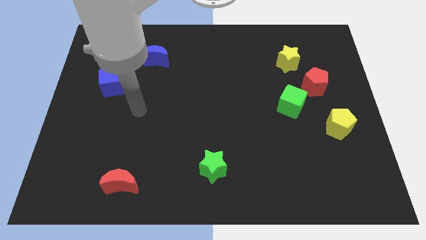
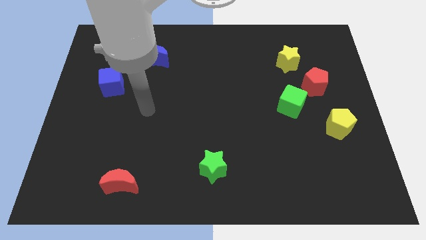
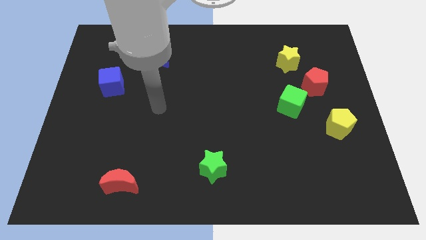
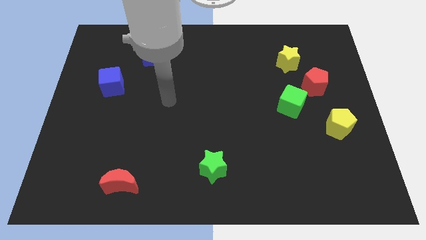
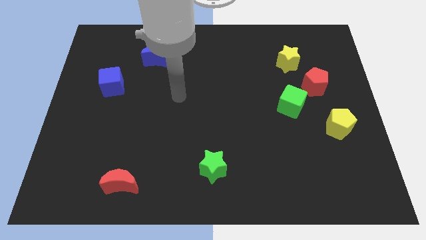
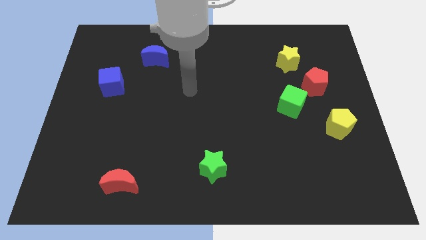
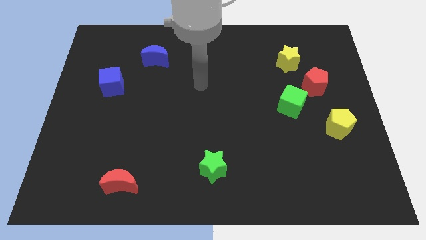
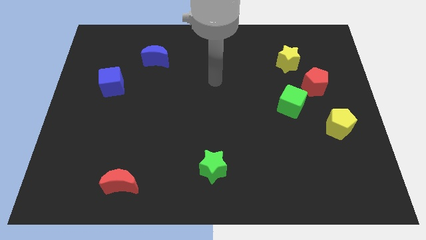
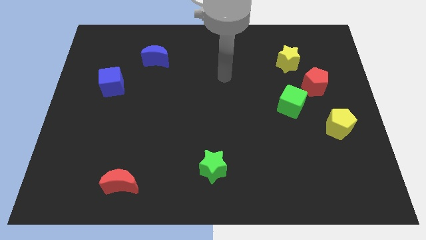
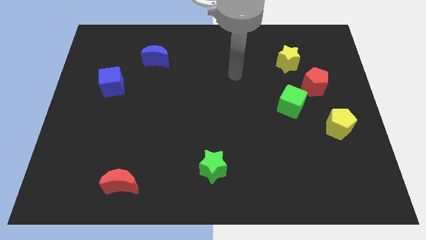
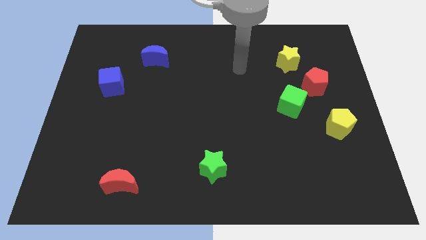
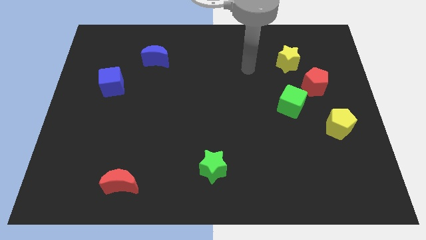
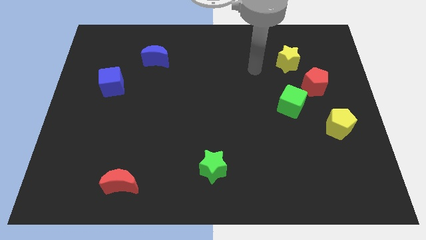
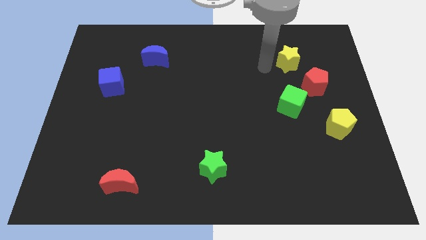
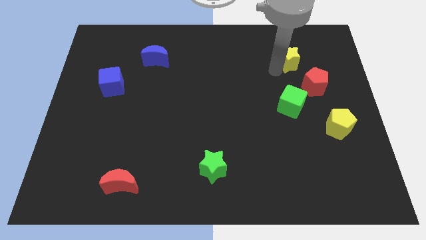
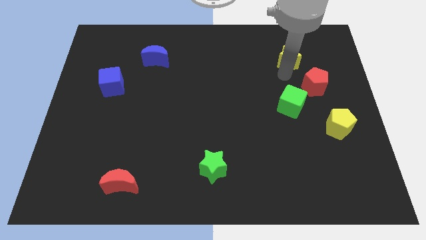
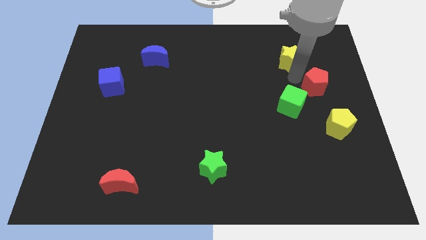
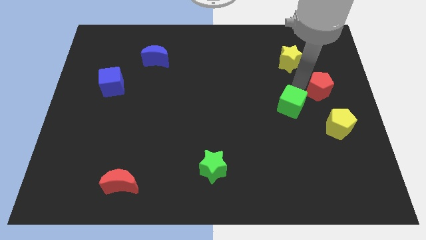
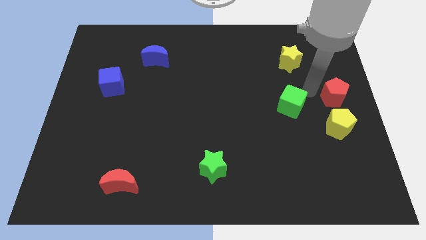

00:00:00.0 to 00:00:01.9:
move the green cube away from the red pentagon

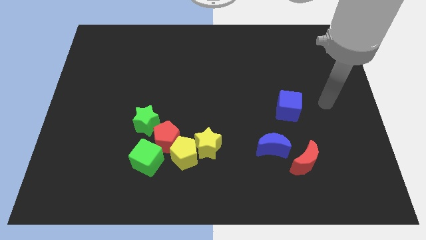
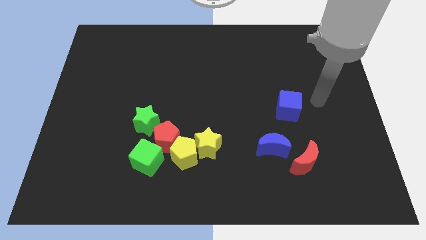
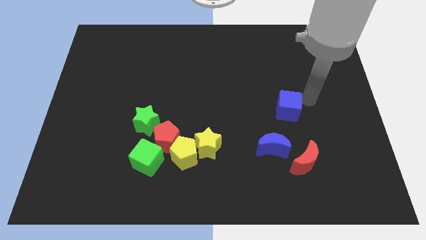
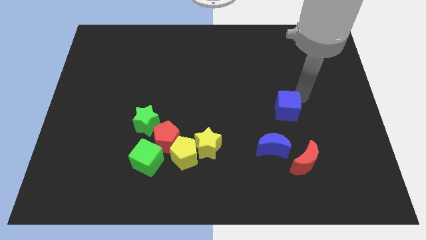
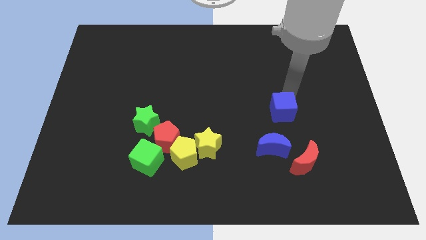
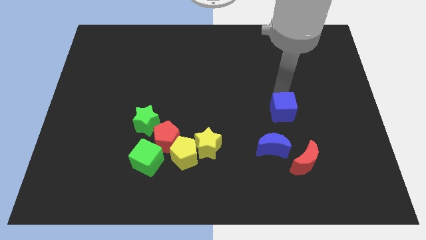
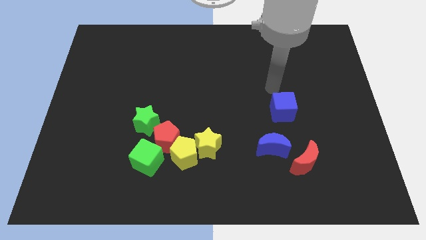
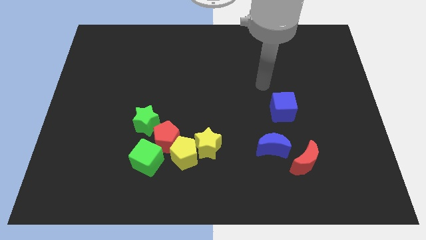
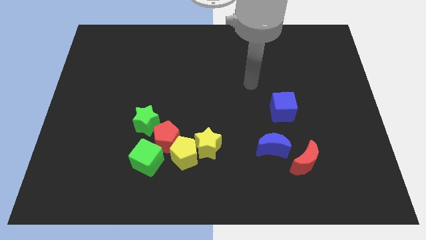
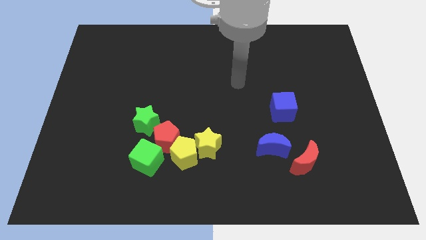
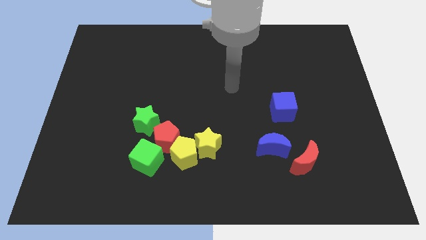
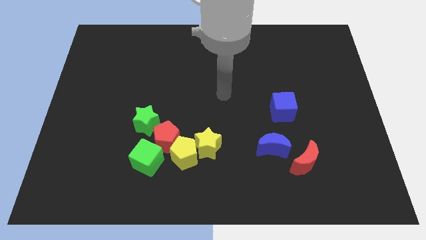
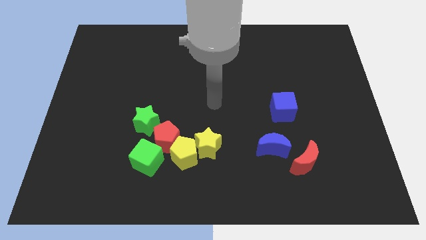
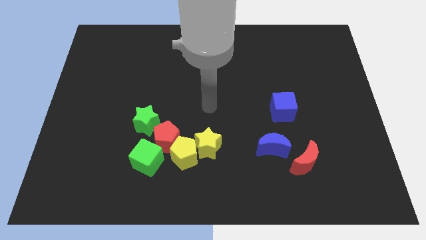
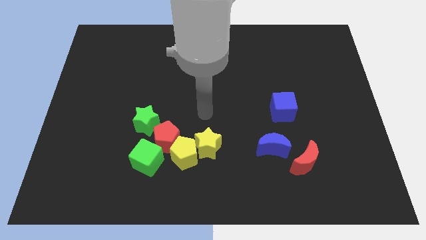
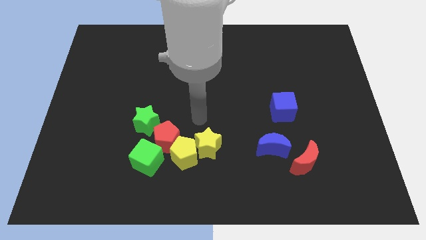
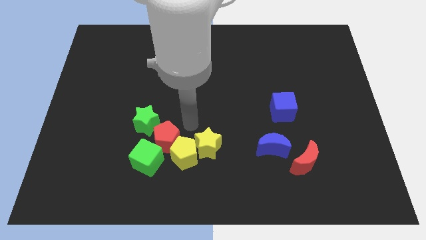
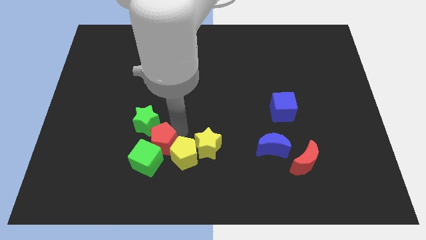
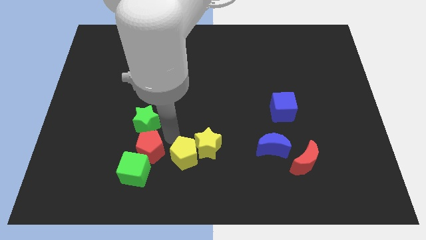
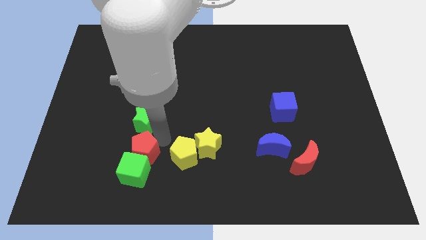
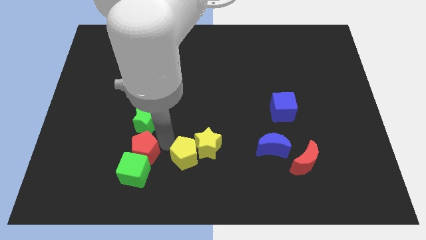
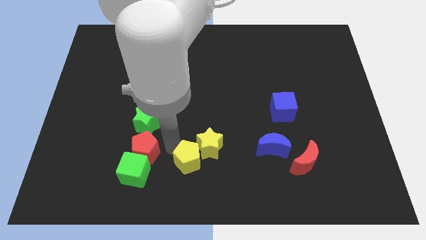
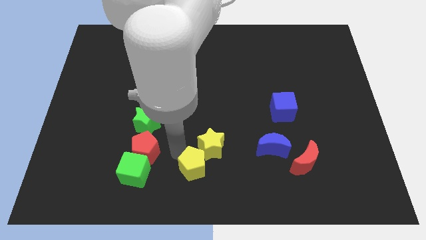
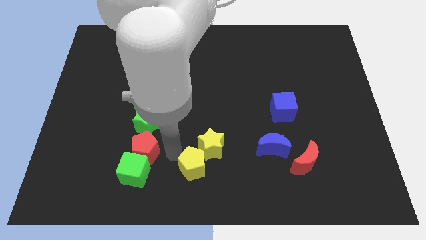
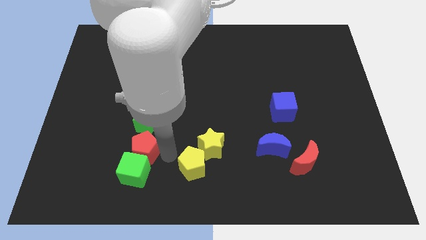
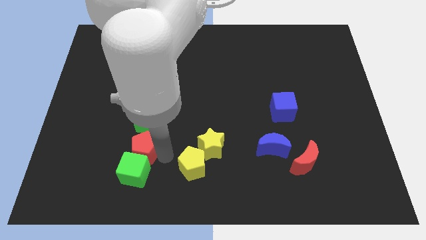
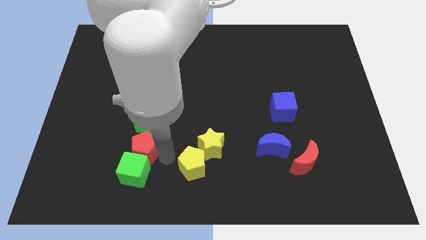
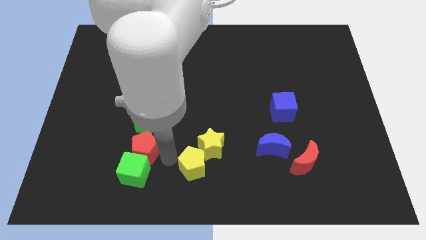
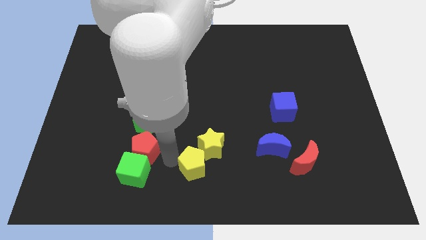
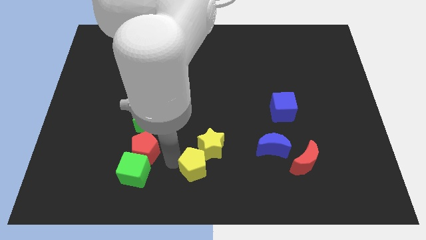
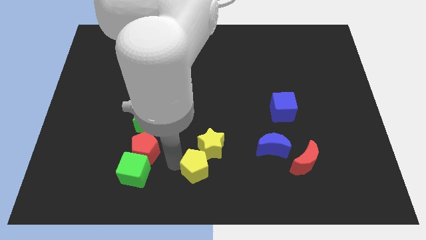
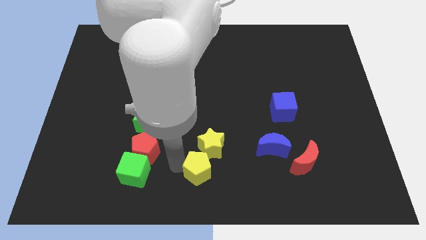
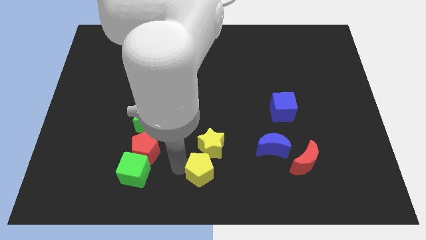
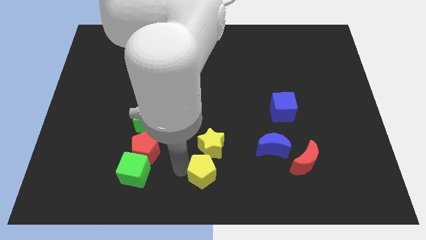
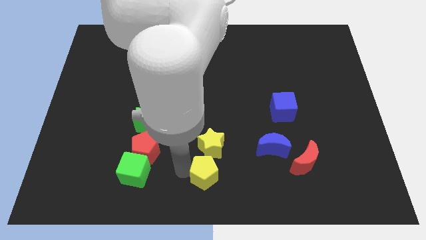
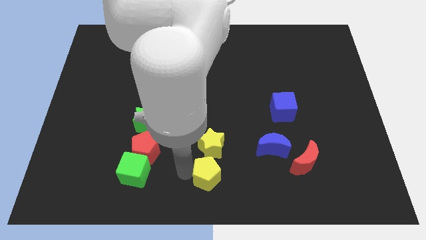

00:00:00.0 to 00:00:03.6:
separate the yellow pentagon from the yellow star, red pentagon, and green cube

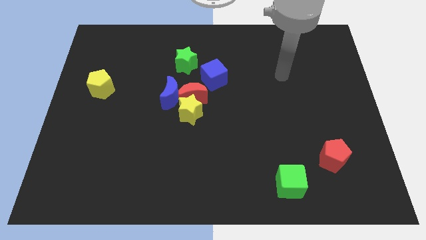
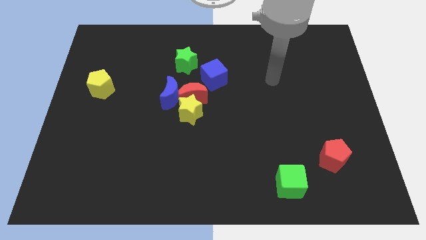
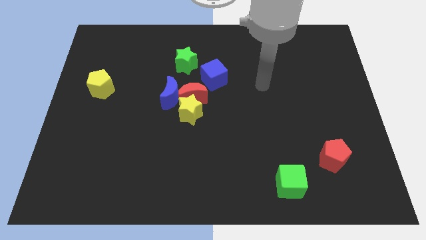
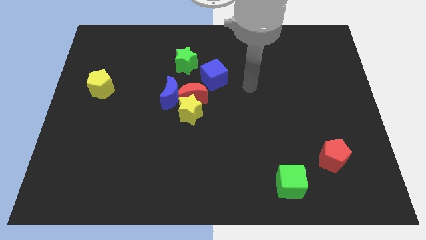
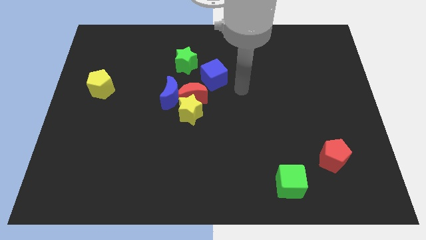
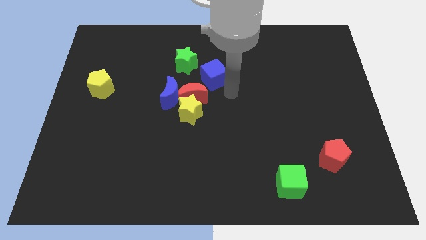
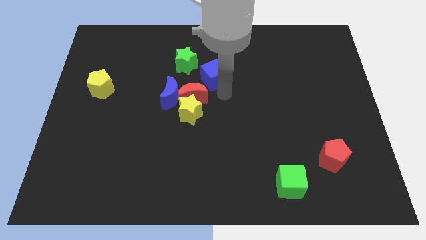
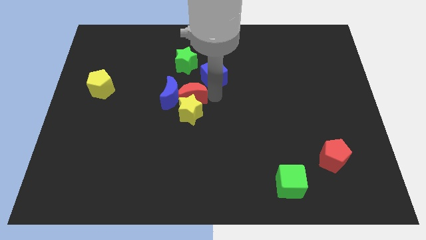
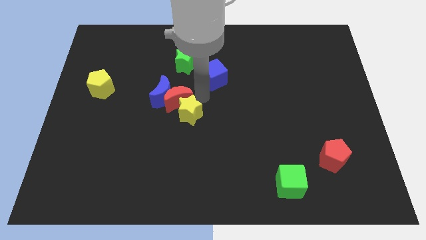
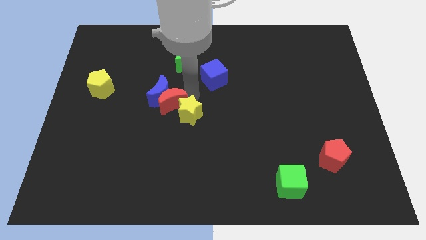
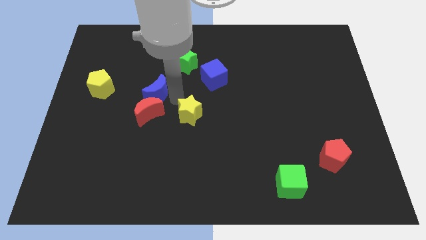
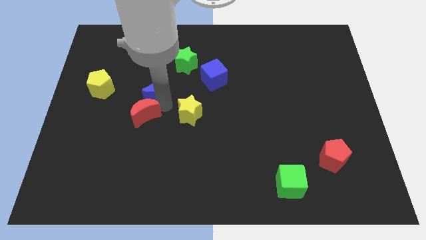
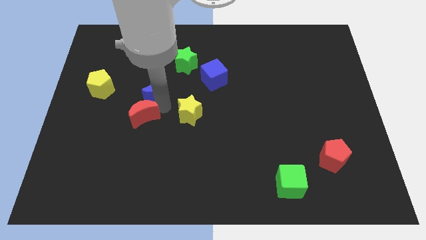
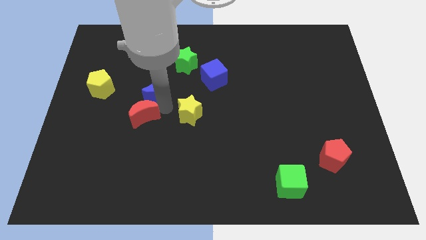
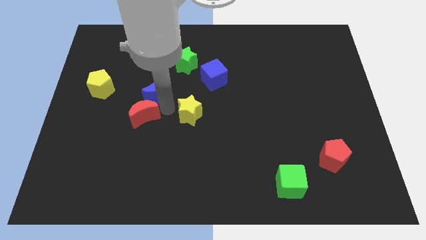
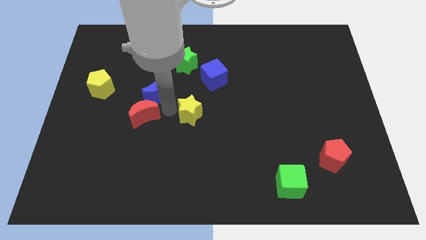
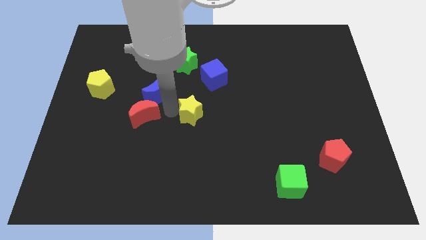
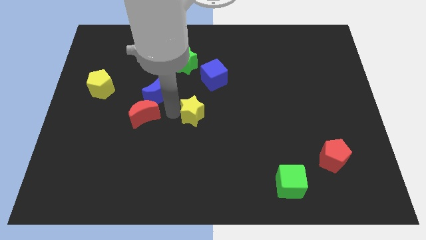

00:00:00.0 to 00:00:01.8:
pull the yellow star apart from the red moon and blue moon

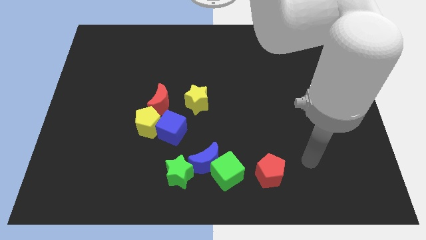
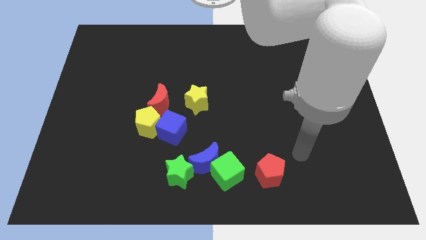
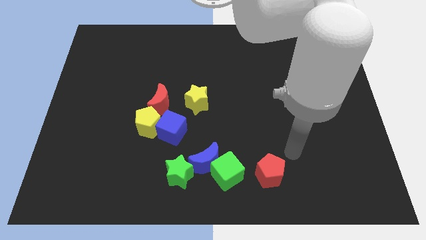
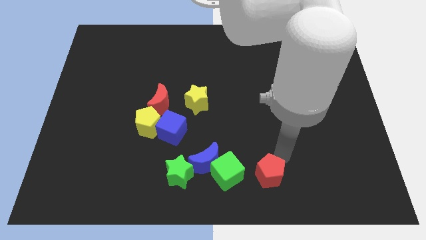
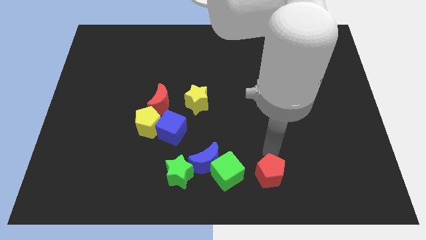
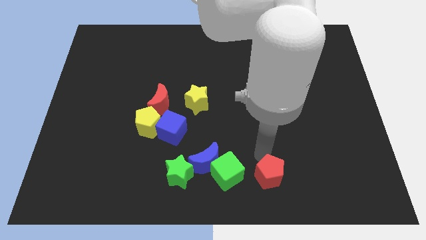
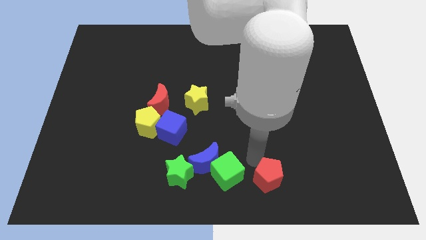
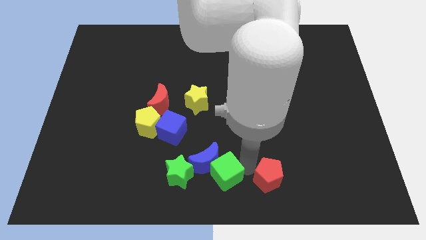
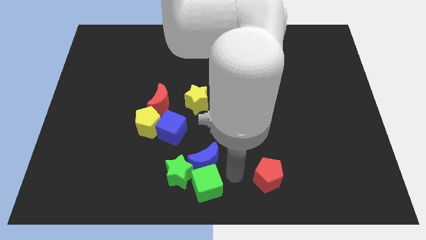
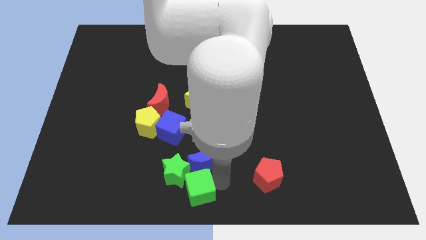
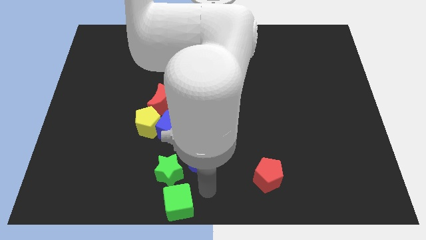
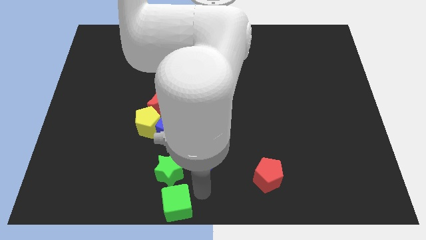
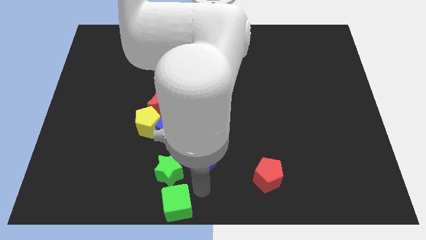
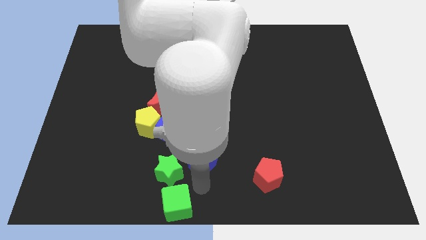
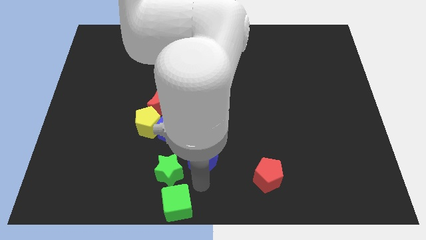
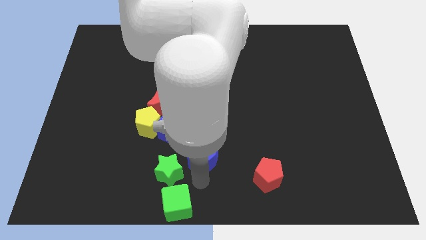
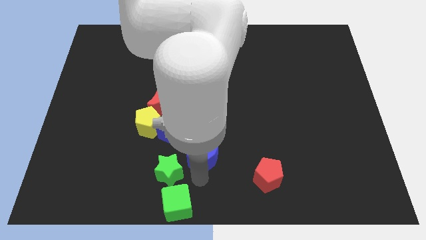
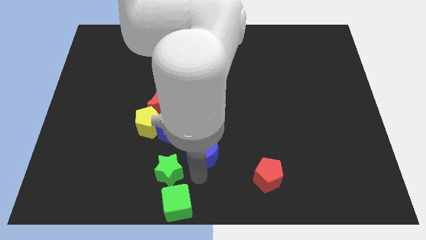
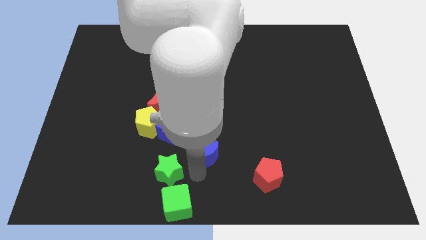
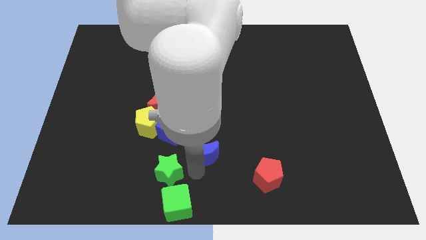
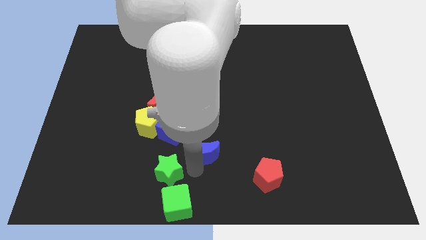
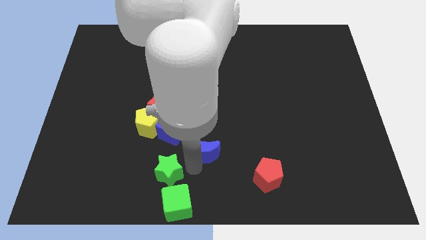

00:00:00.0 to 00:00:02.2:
separate the blue moon from the green cube and green star
